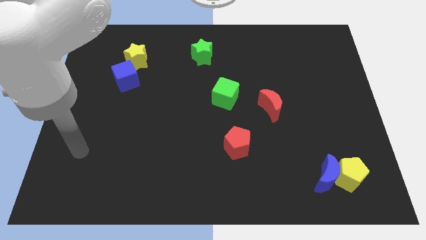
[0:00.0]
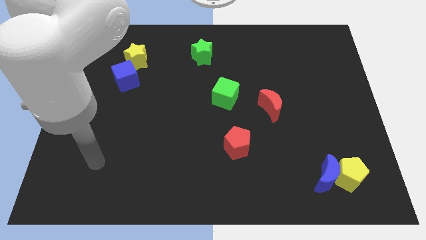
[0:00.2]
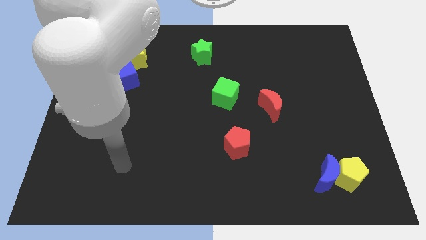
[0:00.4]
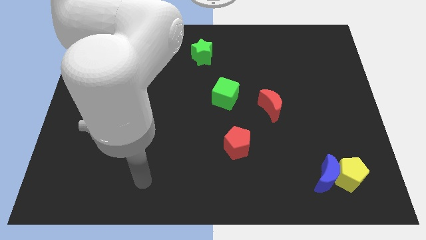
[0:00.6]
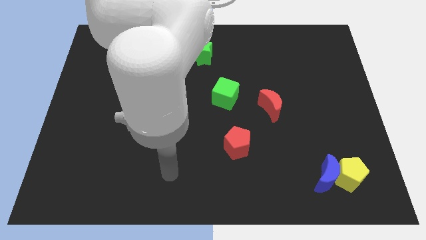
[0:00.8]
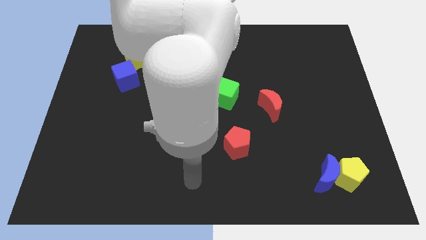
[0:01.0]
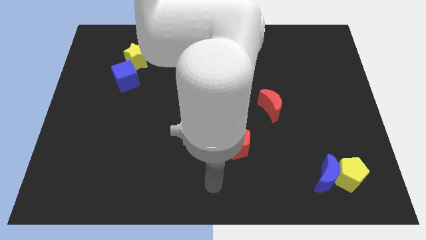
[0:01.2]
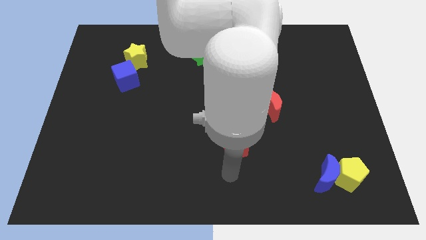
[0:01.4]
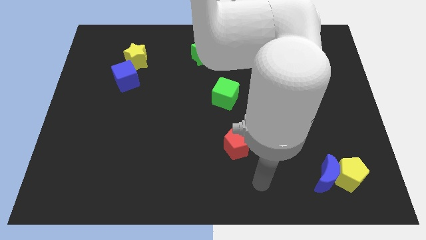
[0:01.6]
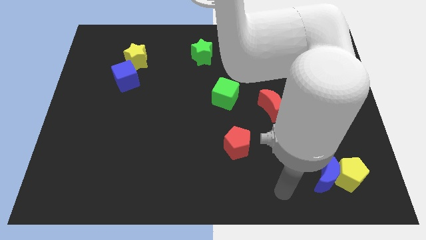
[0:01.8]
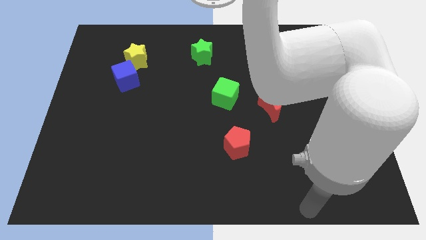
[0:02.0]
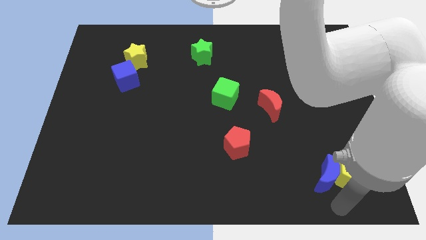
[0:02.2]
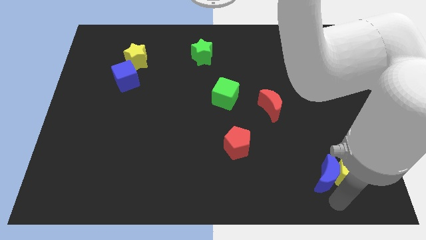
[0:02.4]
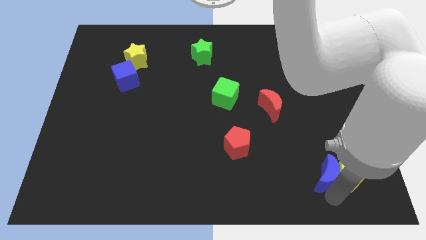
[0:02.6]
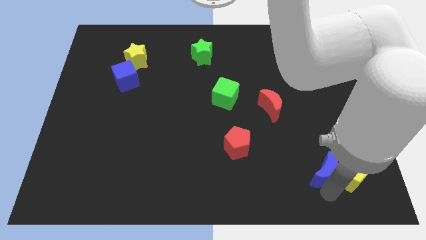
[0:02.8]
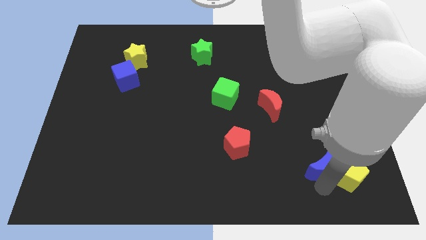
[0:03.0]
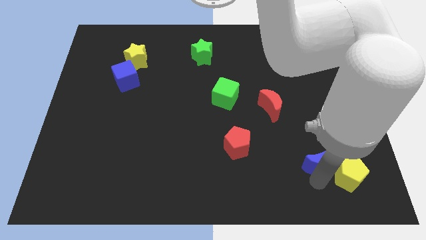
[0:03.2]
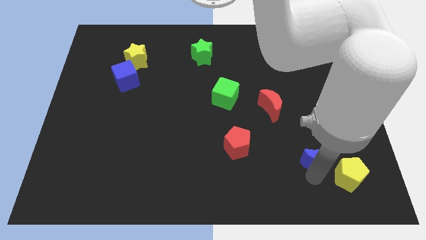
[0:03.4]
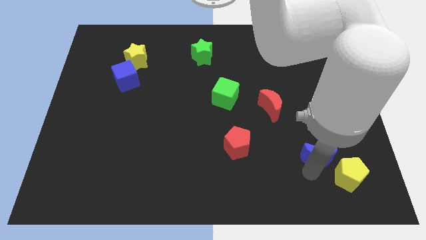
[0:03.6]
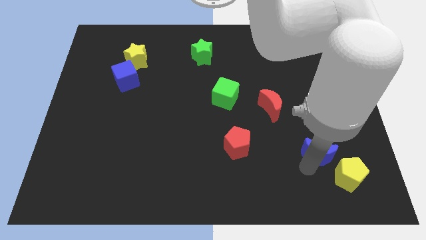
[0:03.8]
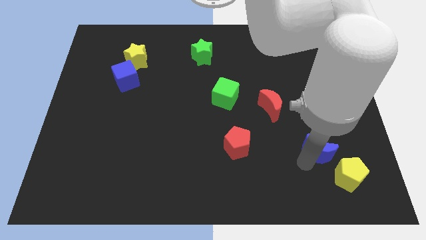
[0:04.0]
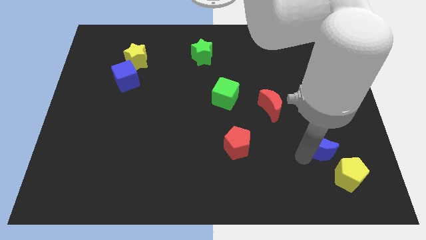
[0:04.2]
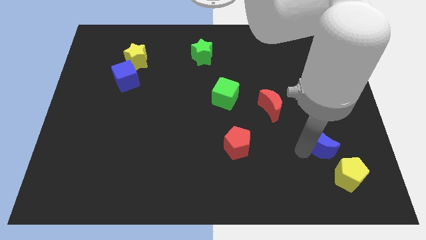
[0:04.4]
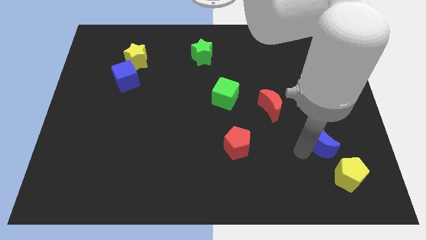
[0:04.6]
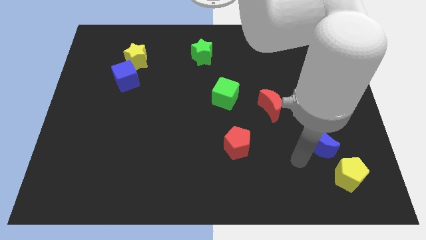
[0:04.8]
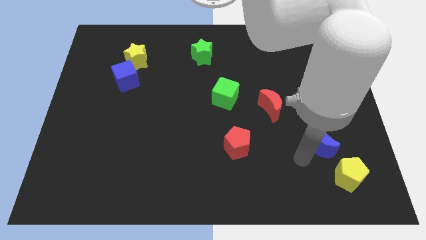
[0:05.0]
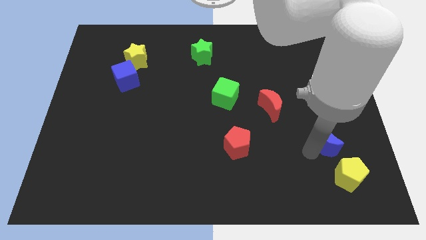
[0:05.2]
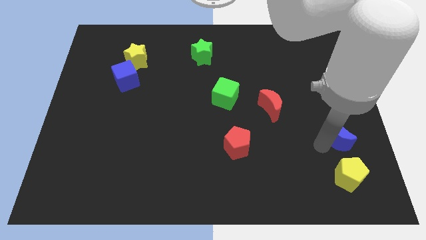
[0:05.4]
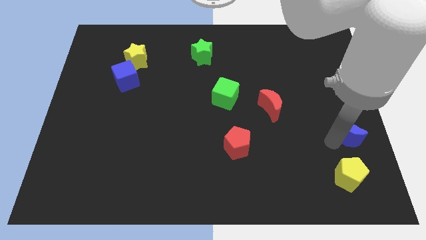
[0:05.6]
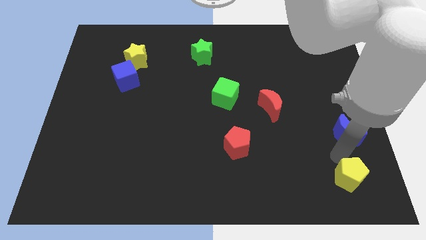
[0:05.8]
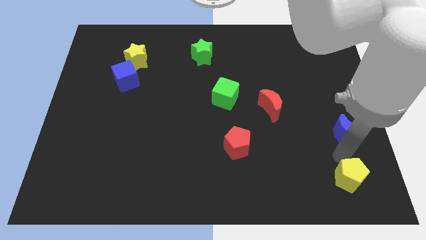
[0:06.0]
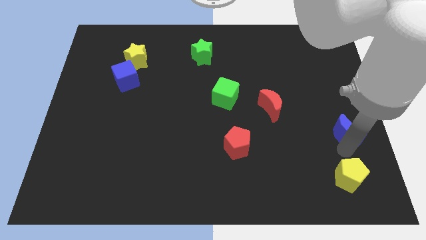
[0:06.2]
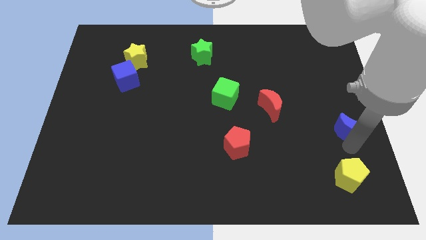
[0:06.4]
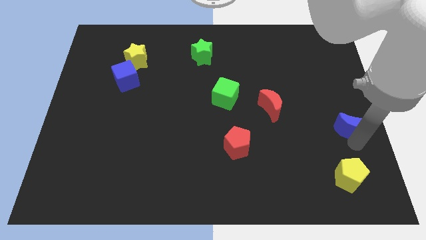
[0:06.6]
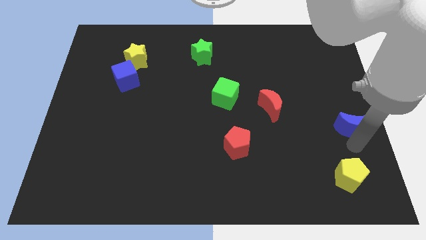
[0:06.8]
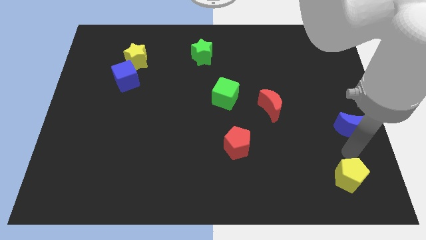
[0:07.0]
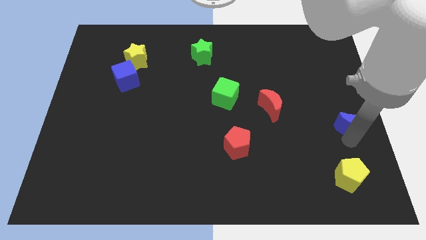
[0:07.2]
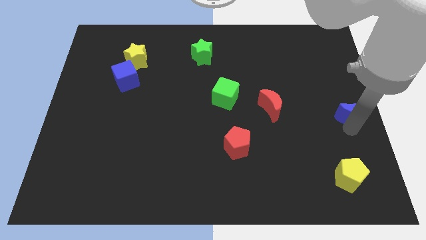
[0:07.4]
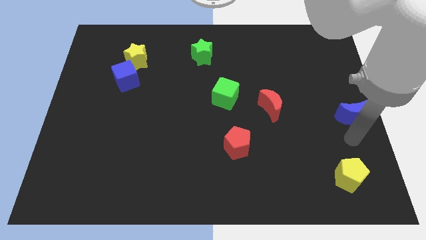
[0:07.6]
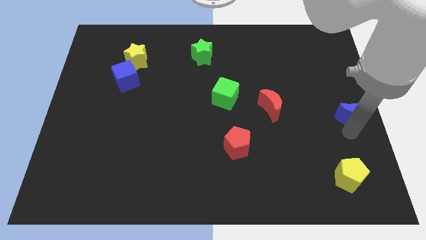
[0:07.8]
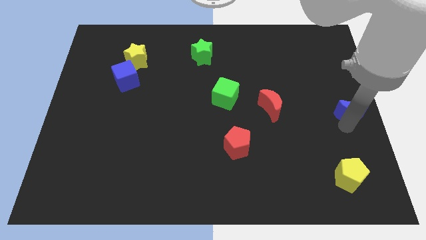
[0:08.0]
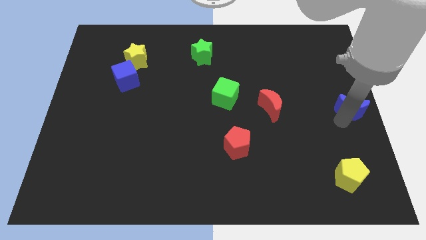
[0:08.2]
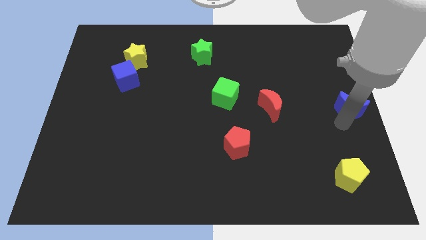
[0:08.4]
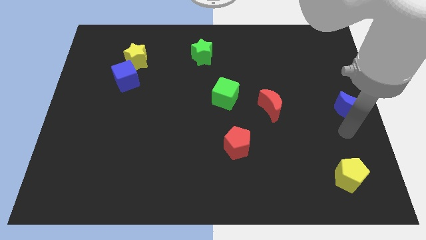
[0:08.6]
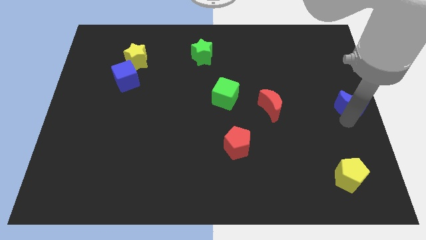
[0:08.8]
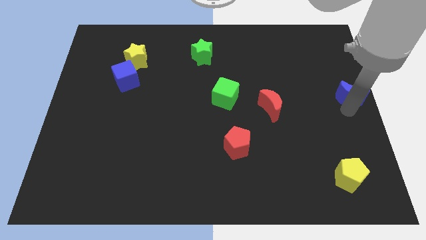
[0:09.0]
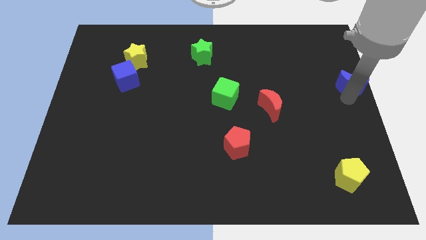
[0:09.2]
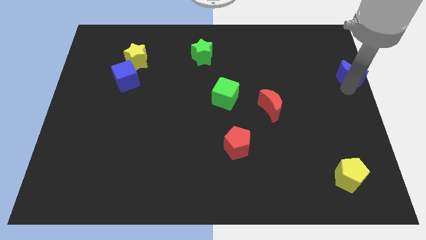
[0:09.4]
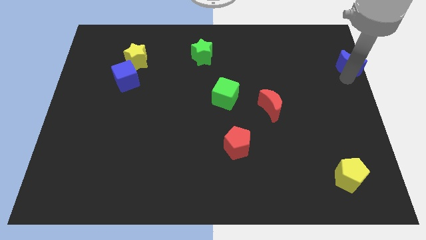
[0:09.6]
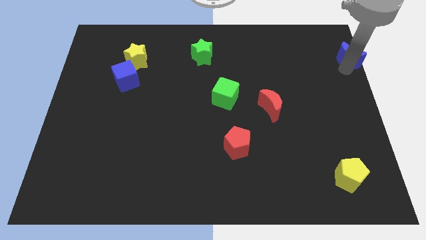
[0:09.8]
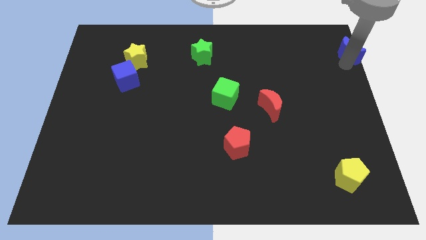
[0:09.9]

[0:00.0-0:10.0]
slide the blue moon to the top right corner

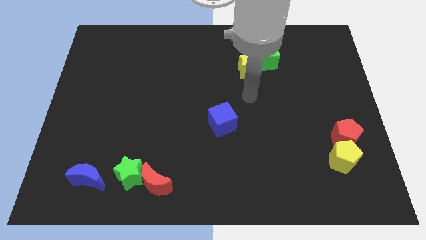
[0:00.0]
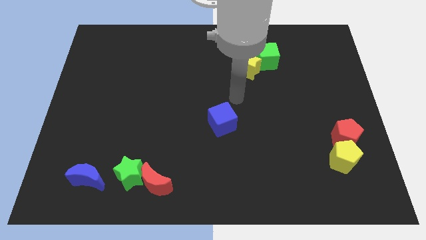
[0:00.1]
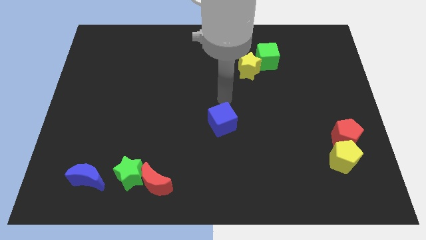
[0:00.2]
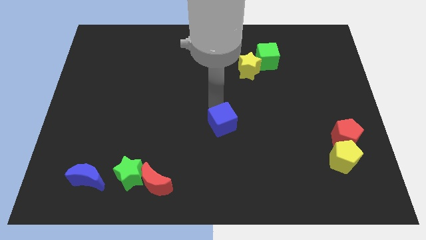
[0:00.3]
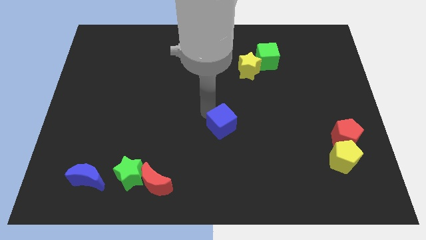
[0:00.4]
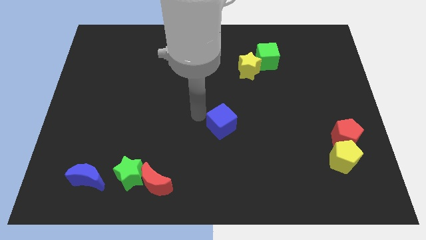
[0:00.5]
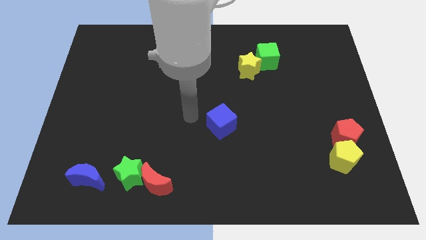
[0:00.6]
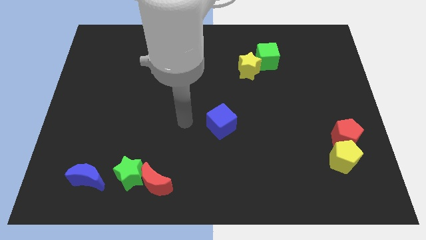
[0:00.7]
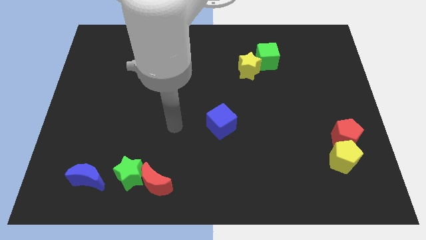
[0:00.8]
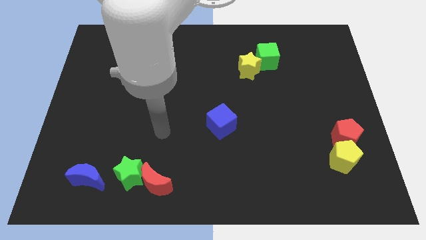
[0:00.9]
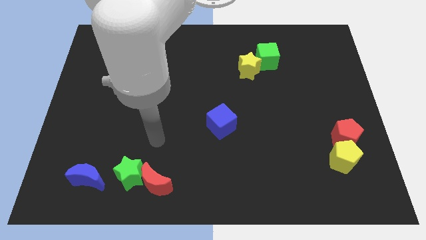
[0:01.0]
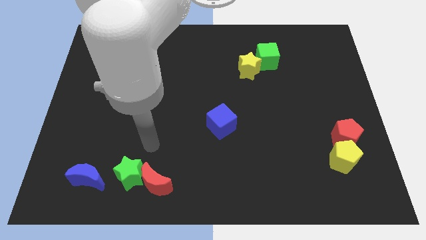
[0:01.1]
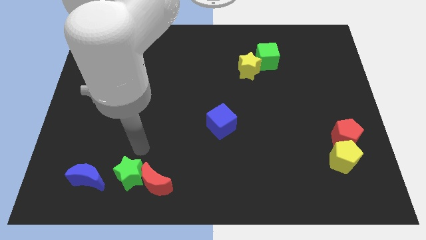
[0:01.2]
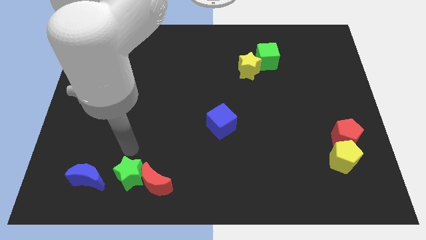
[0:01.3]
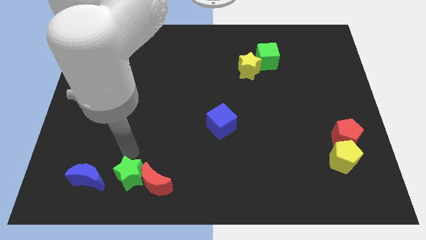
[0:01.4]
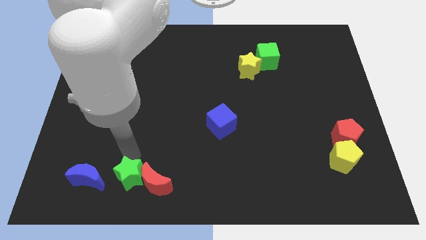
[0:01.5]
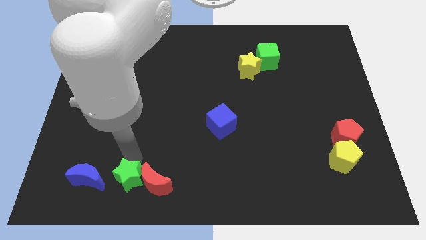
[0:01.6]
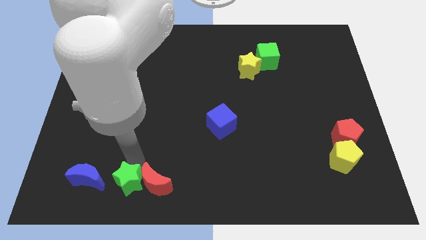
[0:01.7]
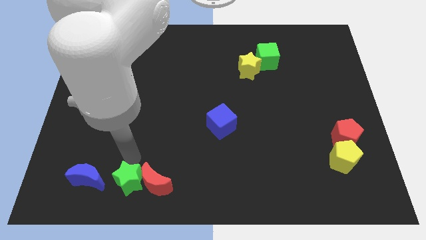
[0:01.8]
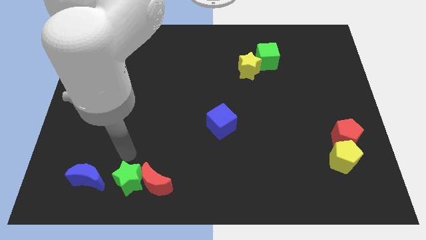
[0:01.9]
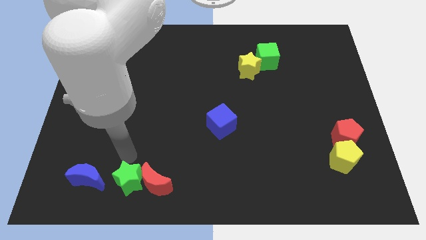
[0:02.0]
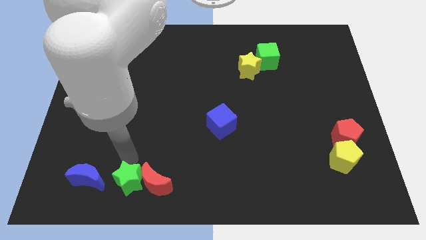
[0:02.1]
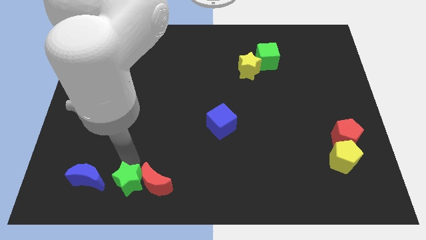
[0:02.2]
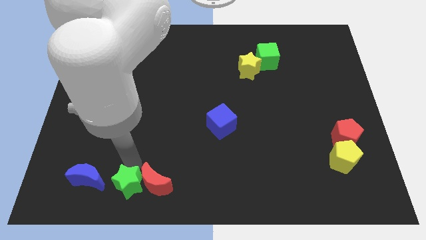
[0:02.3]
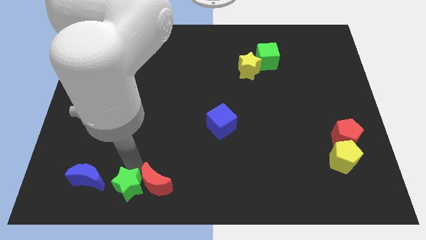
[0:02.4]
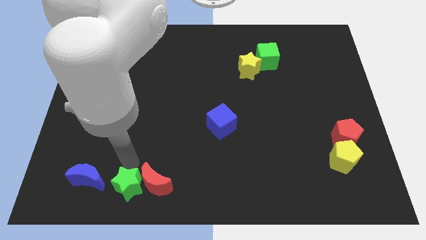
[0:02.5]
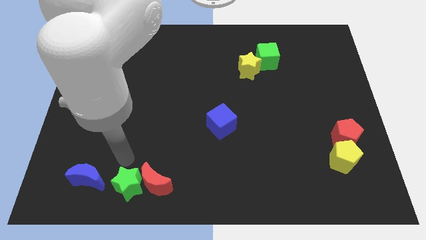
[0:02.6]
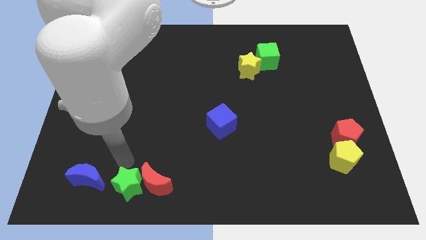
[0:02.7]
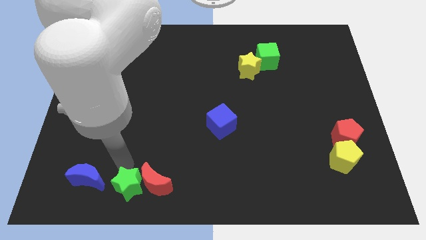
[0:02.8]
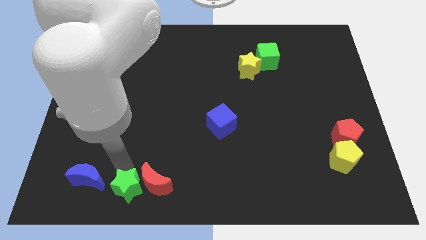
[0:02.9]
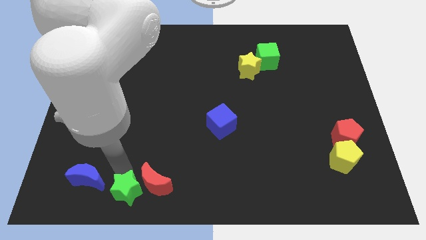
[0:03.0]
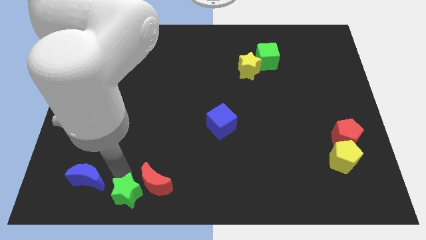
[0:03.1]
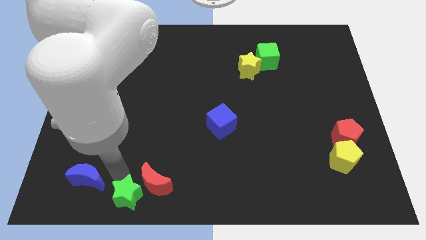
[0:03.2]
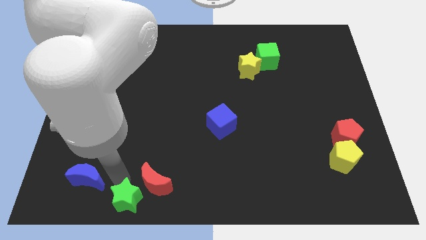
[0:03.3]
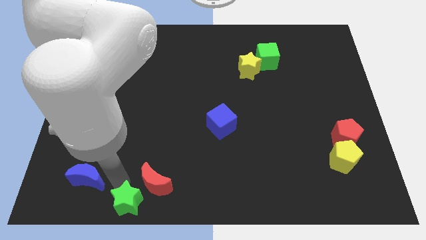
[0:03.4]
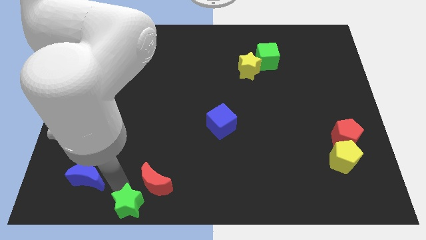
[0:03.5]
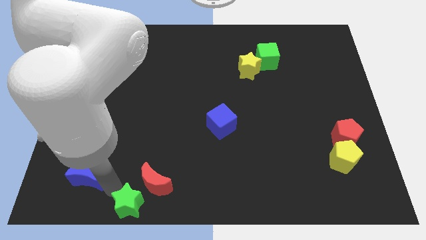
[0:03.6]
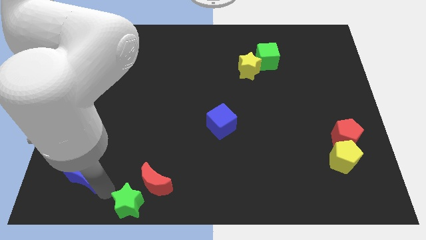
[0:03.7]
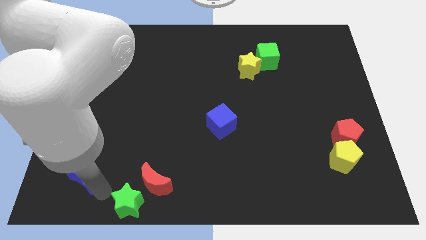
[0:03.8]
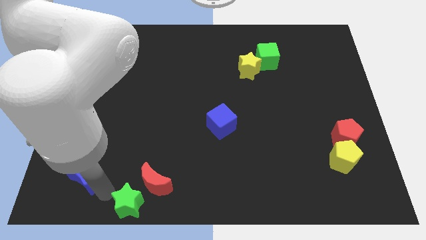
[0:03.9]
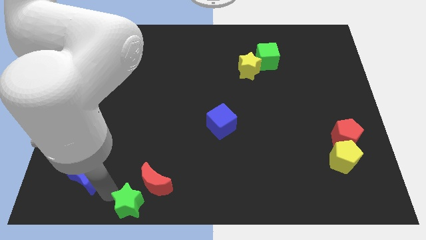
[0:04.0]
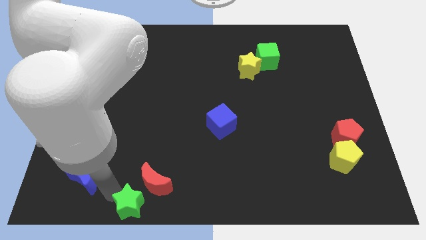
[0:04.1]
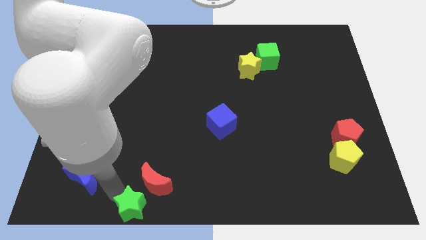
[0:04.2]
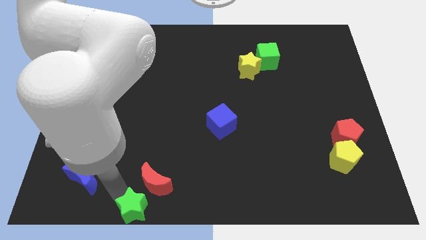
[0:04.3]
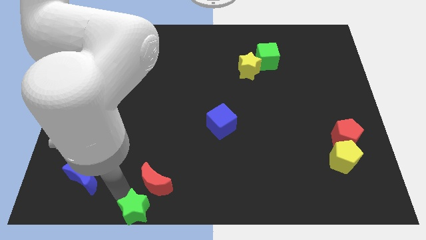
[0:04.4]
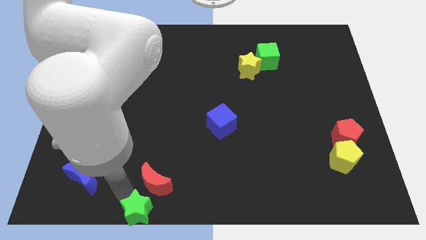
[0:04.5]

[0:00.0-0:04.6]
push the green star to the bottom
